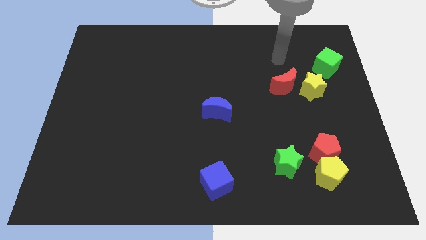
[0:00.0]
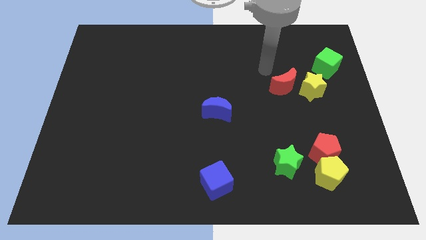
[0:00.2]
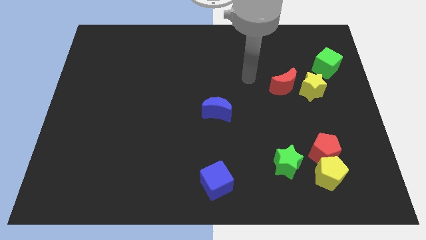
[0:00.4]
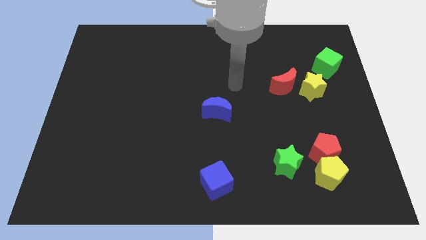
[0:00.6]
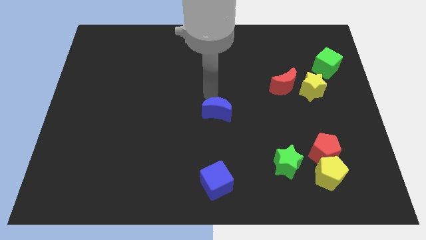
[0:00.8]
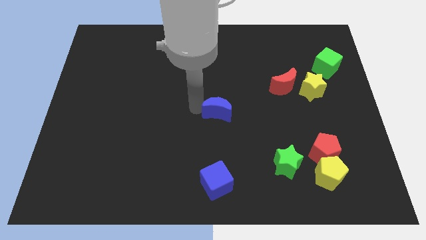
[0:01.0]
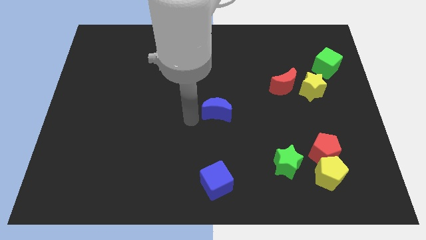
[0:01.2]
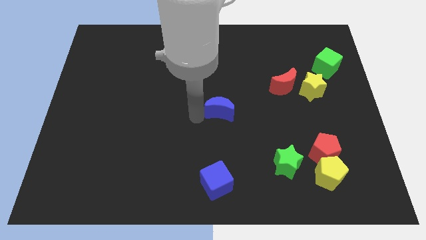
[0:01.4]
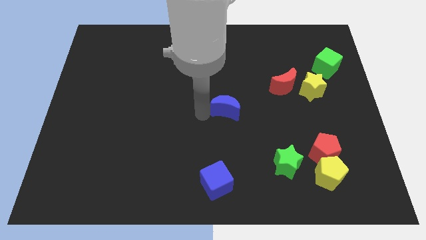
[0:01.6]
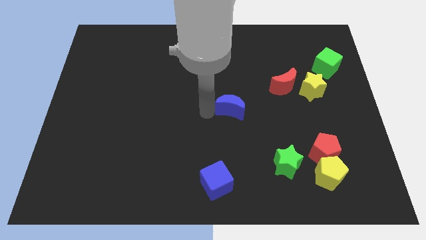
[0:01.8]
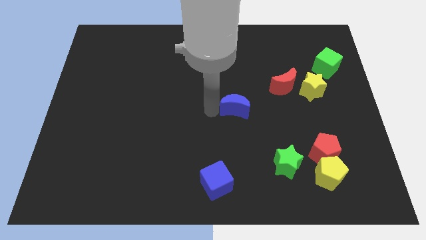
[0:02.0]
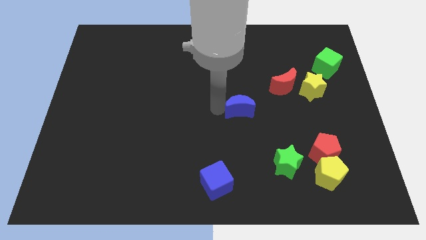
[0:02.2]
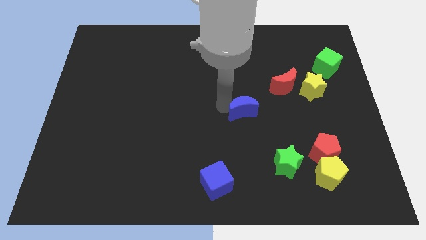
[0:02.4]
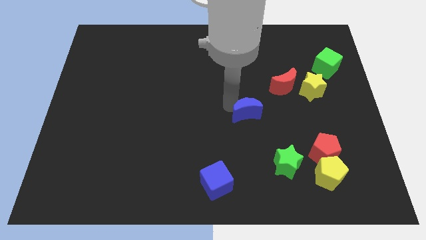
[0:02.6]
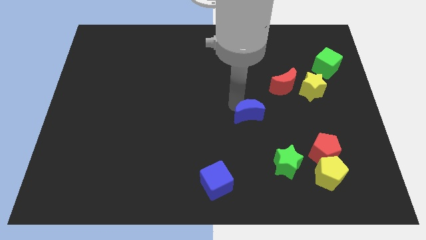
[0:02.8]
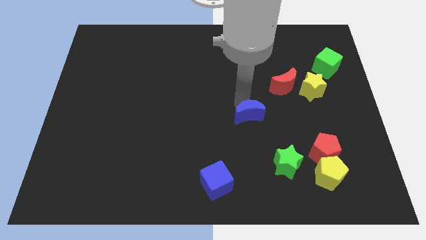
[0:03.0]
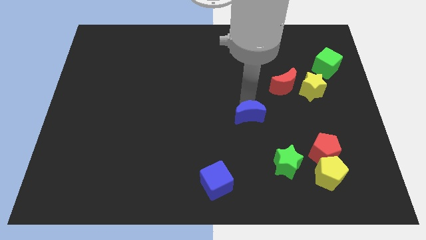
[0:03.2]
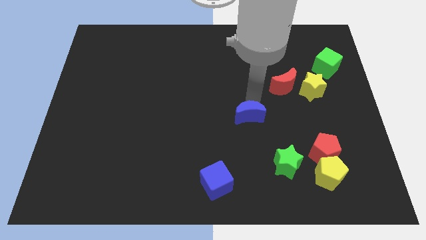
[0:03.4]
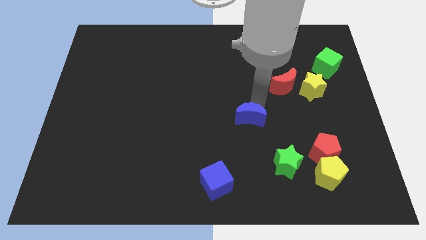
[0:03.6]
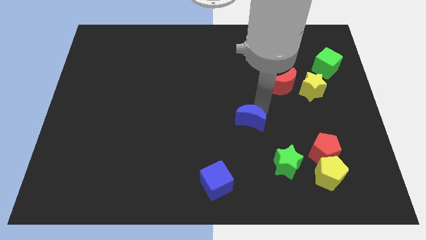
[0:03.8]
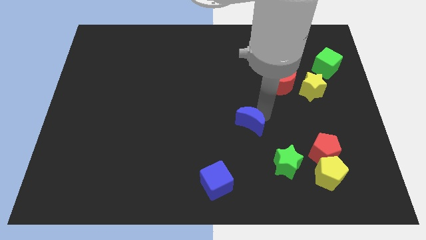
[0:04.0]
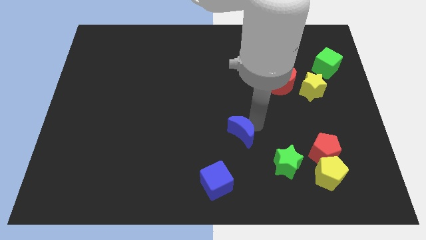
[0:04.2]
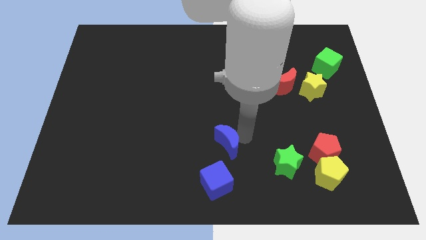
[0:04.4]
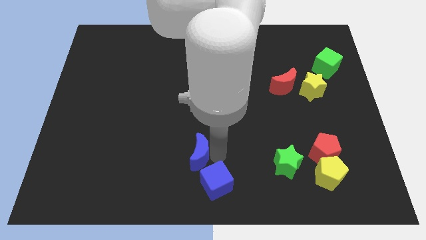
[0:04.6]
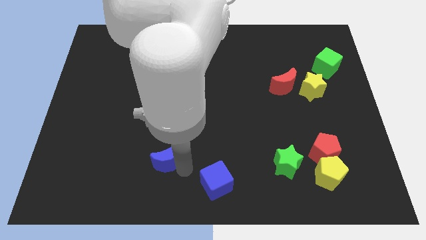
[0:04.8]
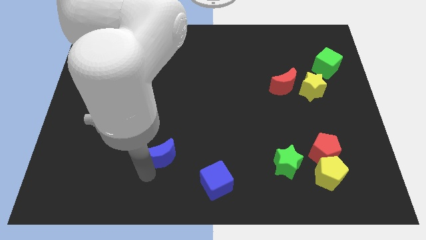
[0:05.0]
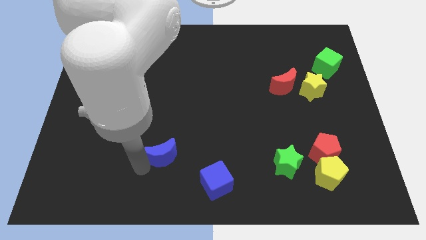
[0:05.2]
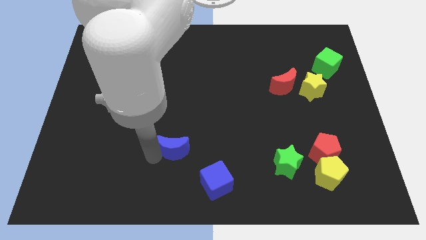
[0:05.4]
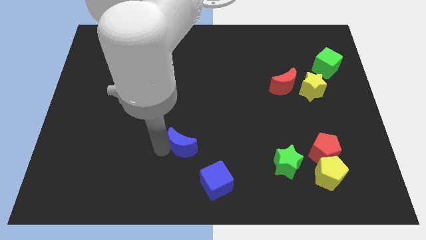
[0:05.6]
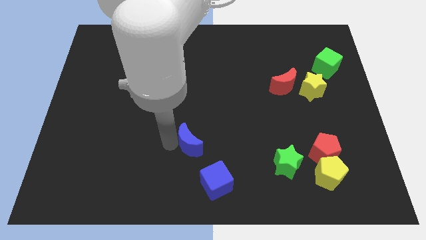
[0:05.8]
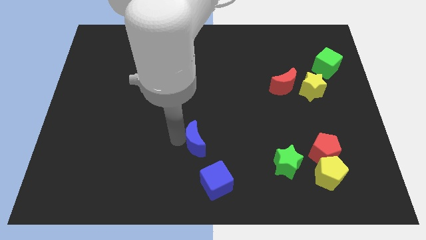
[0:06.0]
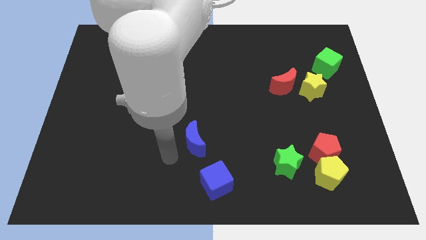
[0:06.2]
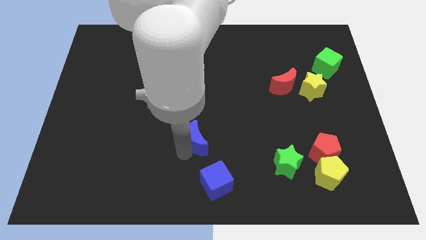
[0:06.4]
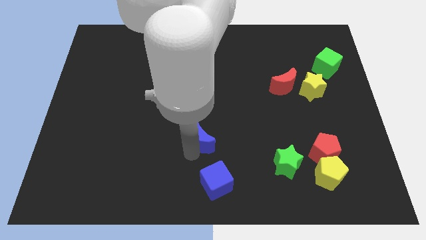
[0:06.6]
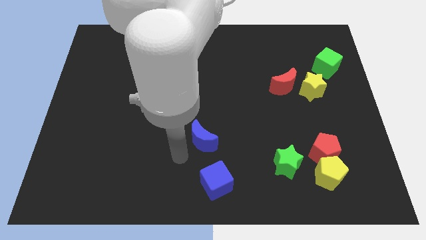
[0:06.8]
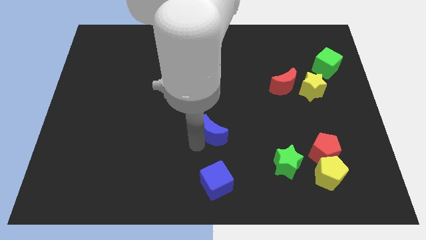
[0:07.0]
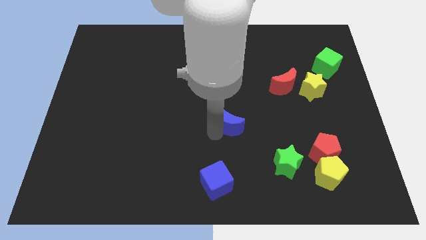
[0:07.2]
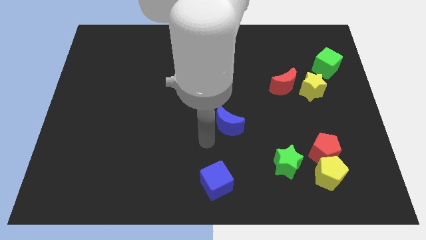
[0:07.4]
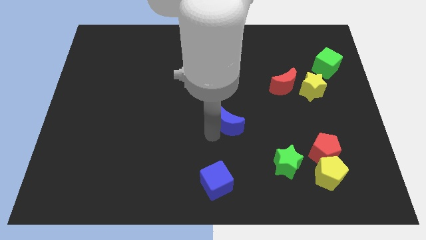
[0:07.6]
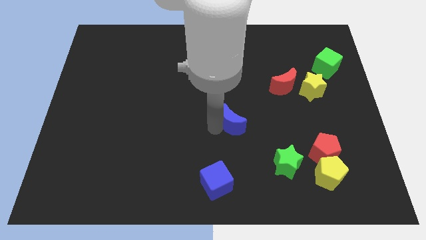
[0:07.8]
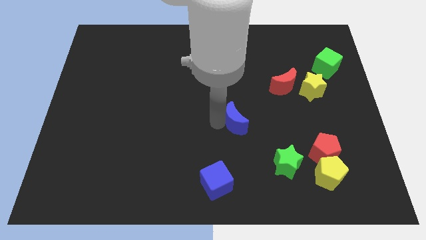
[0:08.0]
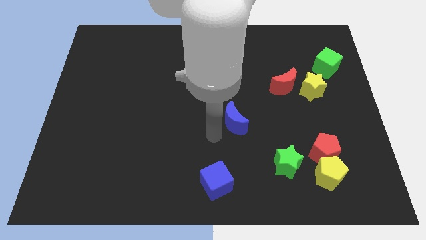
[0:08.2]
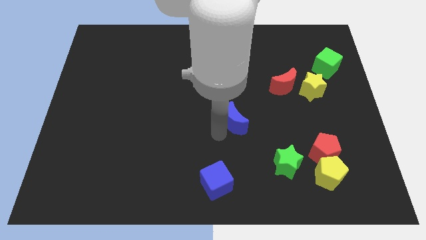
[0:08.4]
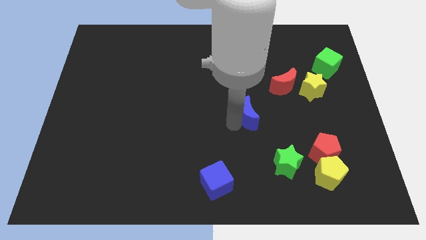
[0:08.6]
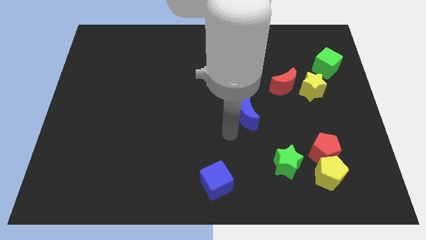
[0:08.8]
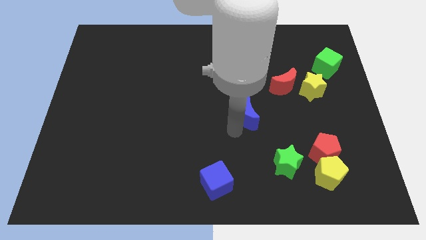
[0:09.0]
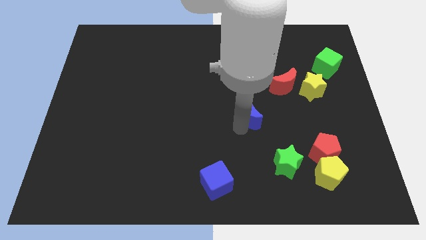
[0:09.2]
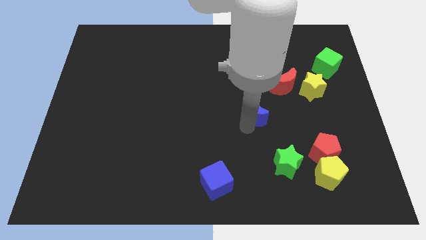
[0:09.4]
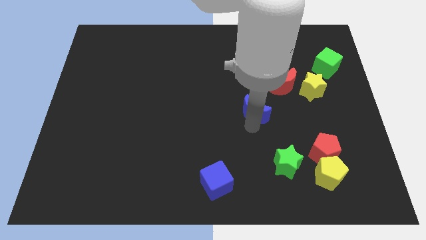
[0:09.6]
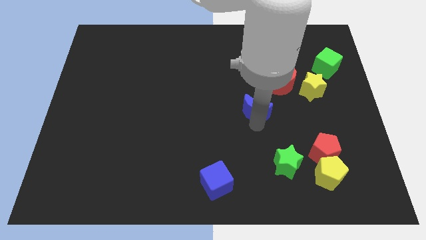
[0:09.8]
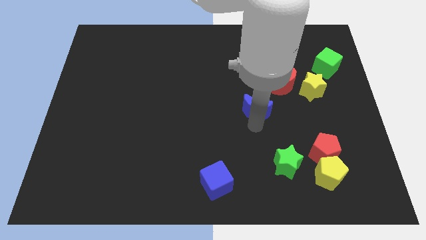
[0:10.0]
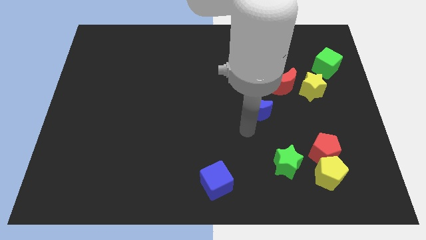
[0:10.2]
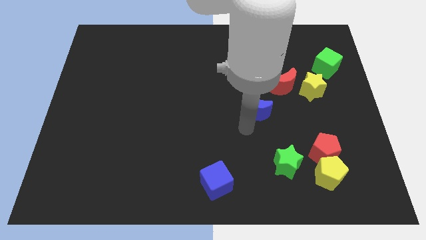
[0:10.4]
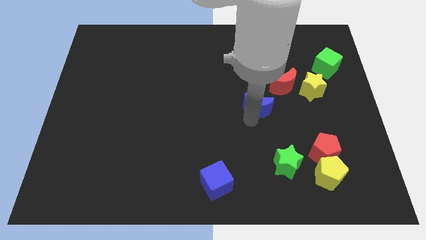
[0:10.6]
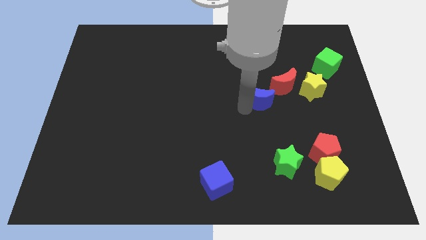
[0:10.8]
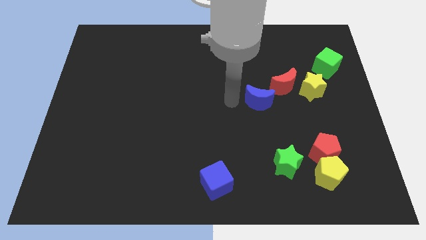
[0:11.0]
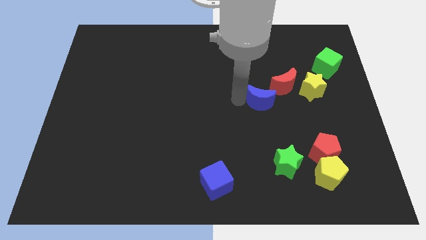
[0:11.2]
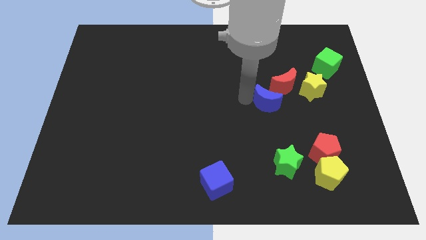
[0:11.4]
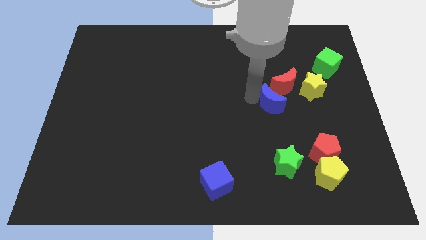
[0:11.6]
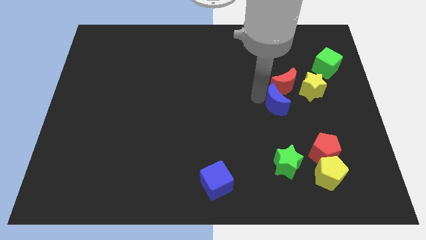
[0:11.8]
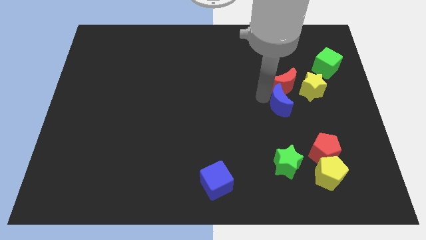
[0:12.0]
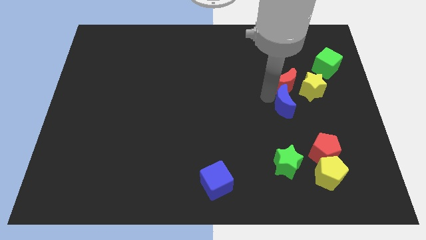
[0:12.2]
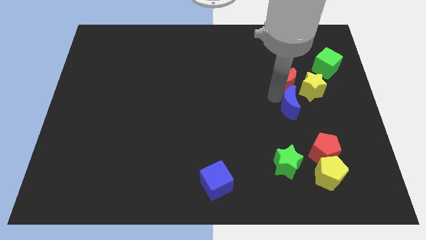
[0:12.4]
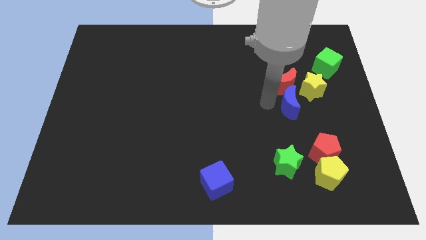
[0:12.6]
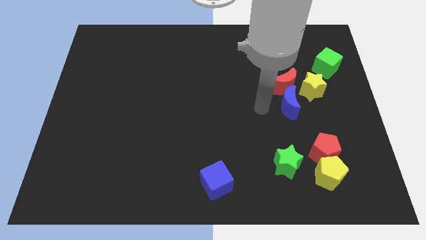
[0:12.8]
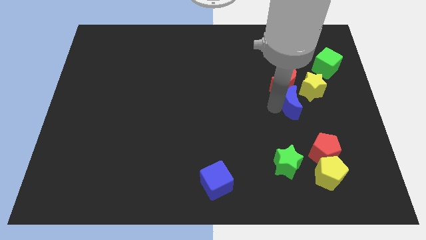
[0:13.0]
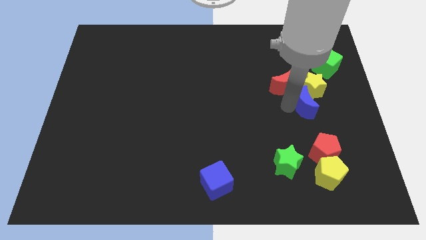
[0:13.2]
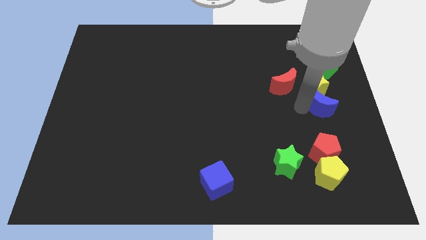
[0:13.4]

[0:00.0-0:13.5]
slide the blue moon to the center right
